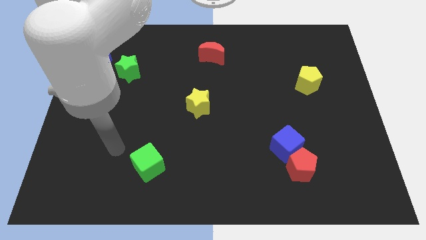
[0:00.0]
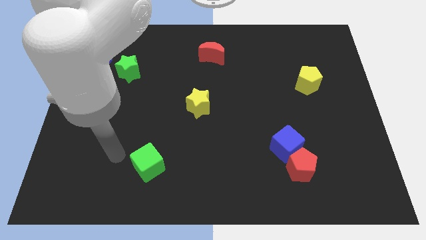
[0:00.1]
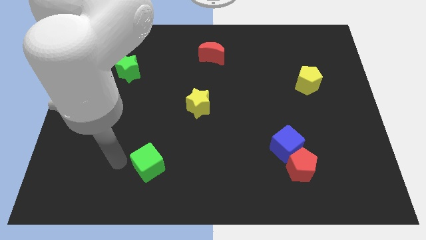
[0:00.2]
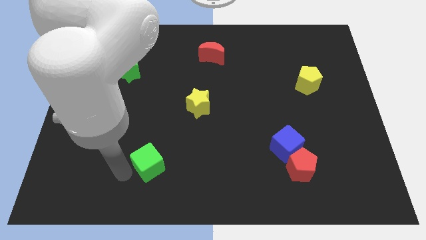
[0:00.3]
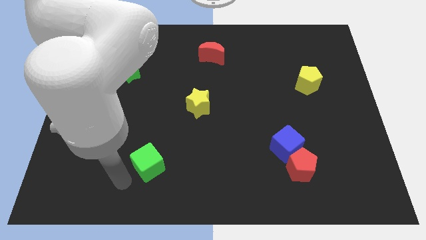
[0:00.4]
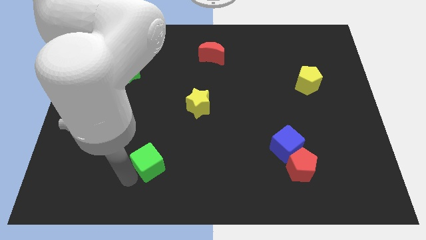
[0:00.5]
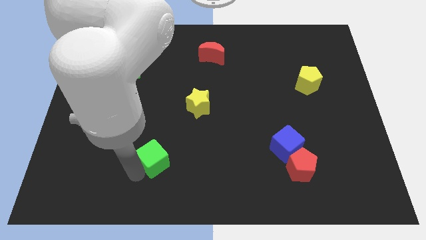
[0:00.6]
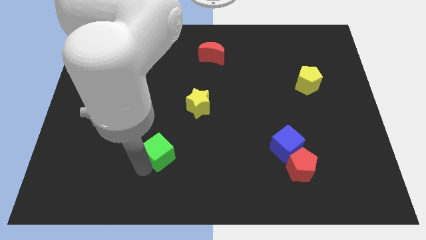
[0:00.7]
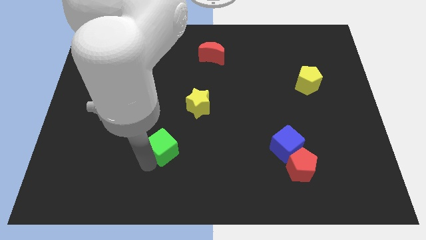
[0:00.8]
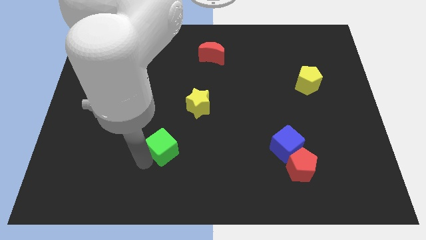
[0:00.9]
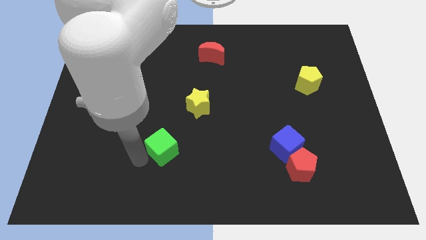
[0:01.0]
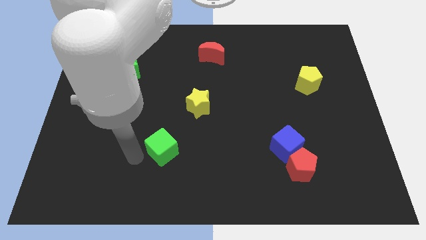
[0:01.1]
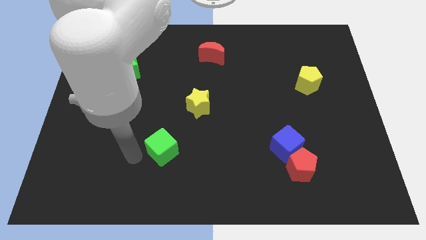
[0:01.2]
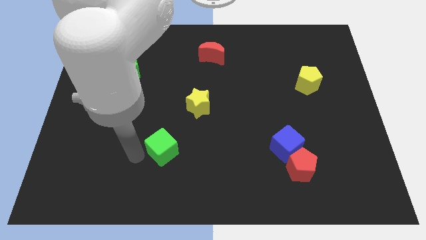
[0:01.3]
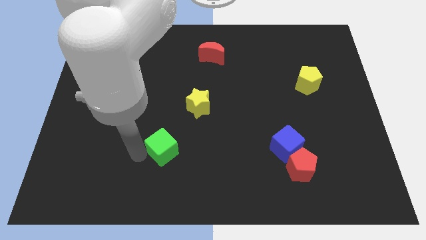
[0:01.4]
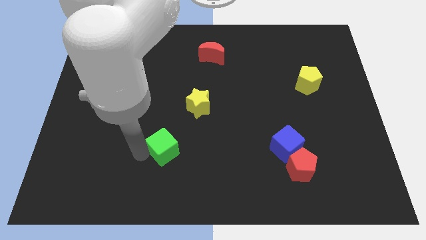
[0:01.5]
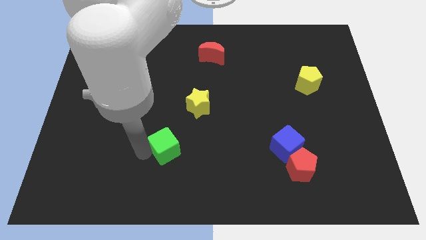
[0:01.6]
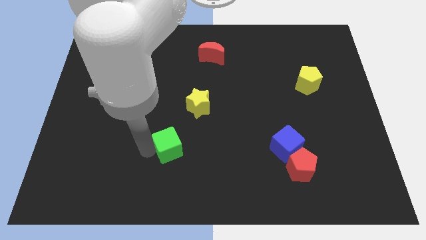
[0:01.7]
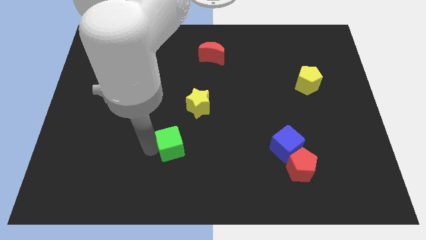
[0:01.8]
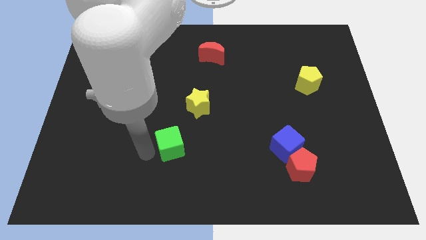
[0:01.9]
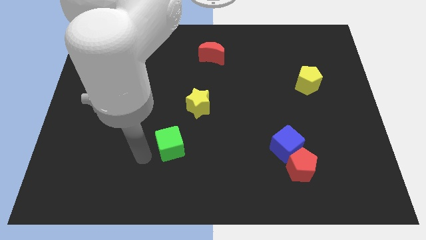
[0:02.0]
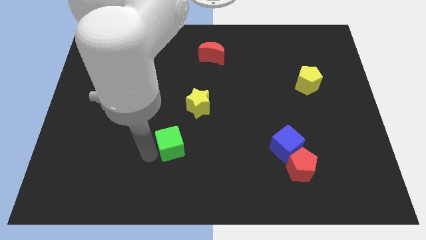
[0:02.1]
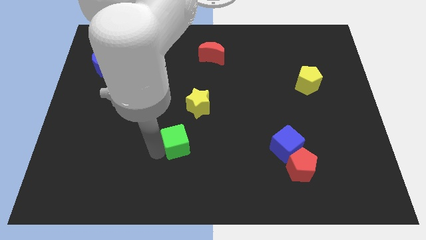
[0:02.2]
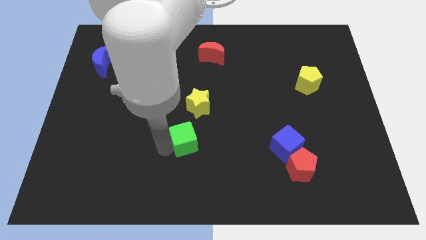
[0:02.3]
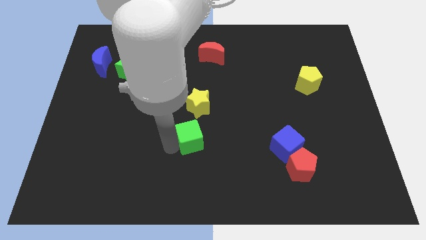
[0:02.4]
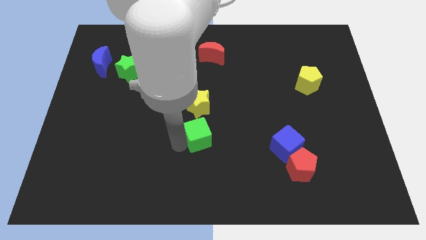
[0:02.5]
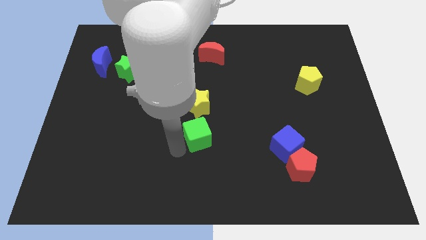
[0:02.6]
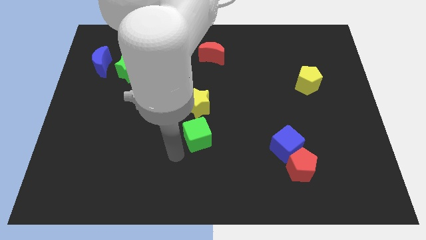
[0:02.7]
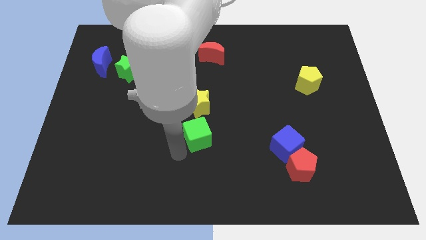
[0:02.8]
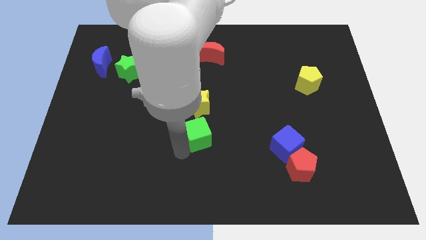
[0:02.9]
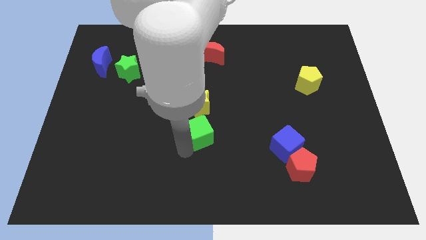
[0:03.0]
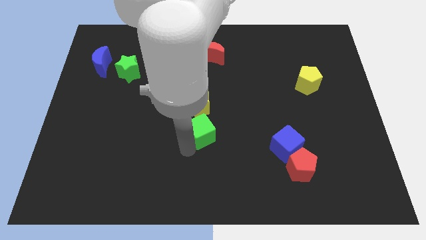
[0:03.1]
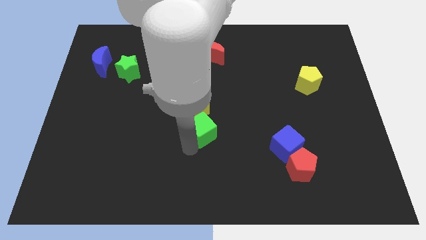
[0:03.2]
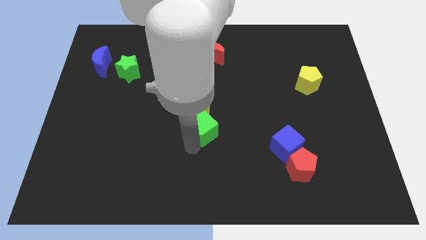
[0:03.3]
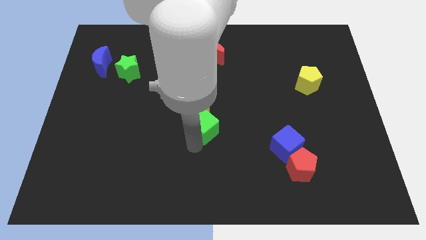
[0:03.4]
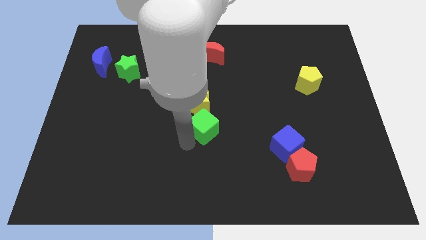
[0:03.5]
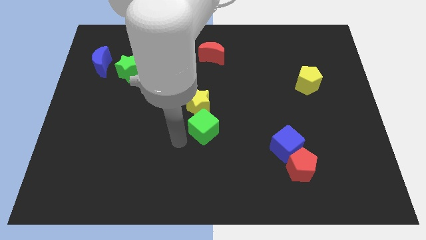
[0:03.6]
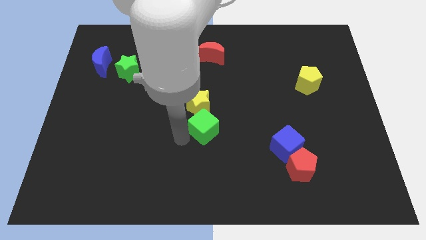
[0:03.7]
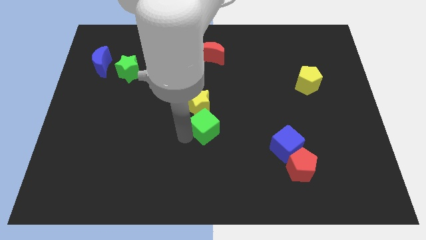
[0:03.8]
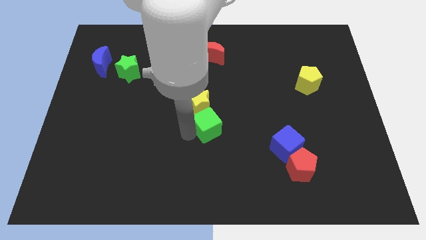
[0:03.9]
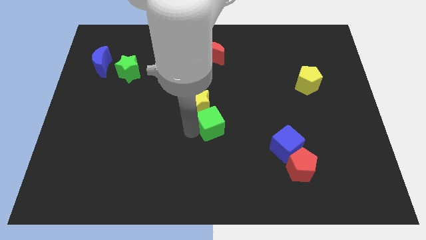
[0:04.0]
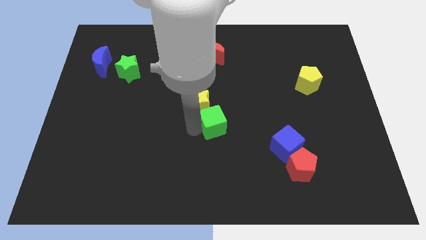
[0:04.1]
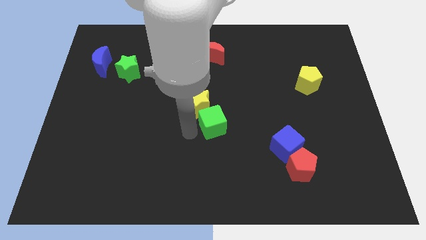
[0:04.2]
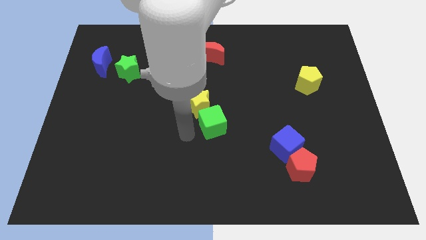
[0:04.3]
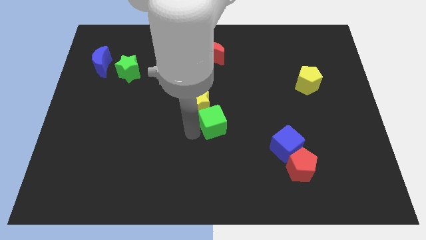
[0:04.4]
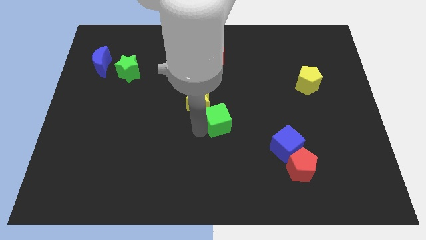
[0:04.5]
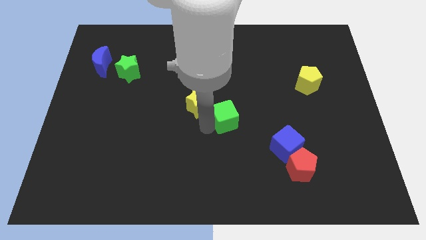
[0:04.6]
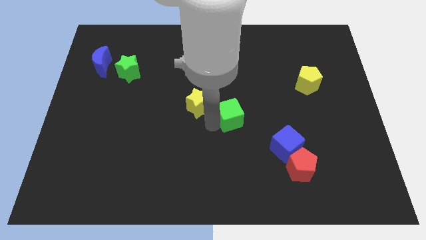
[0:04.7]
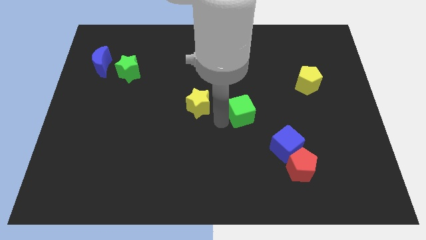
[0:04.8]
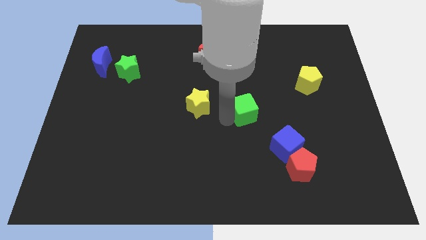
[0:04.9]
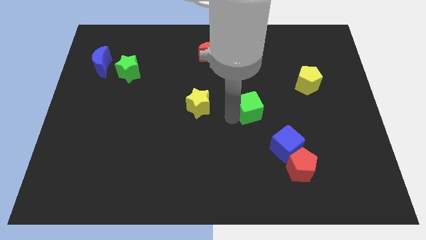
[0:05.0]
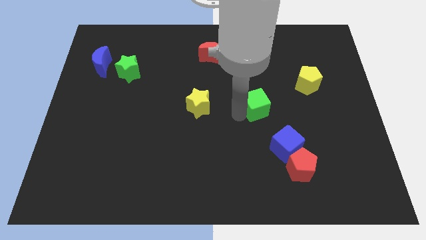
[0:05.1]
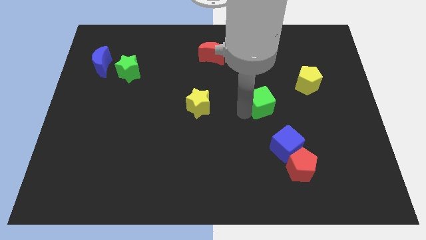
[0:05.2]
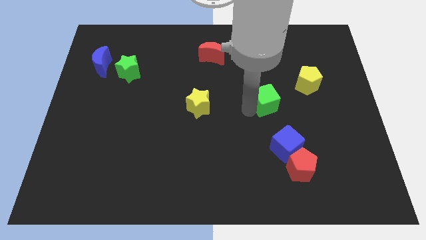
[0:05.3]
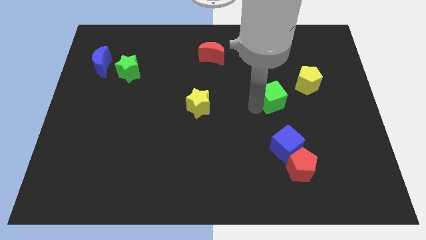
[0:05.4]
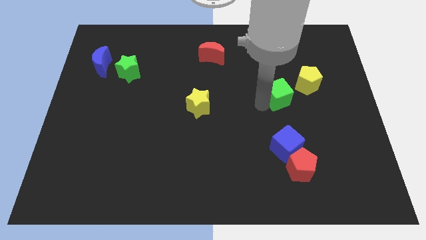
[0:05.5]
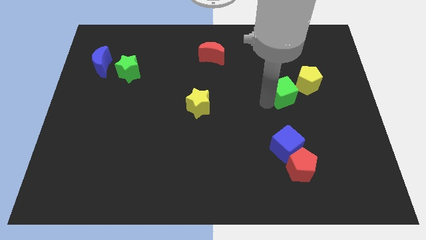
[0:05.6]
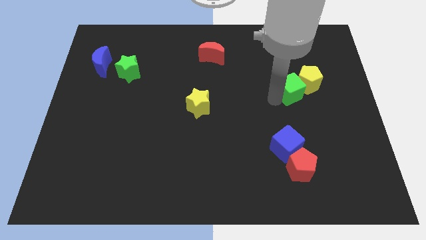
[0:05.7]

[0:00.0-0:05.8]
move the green cube to the yellow pentagon

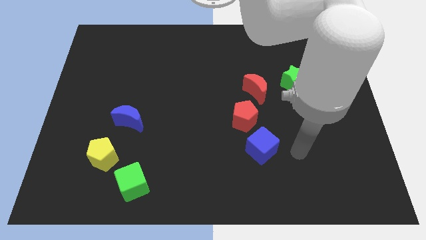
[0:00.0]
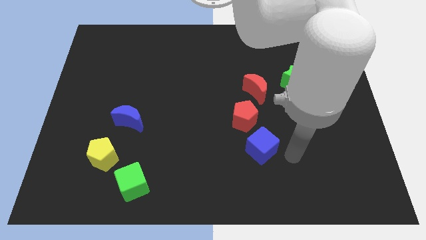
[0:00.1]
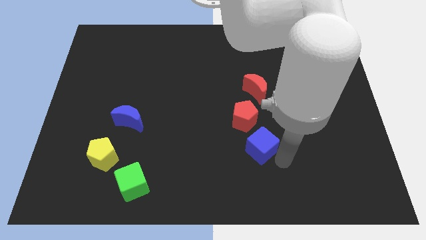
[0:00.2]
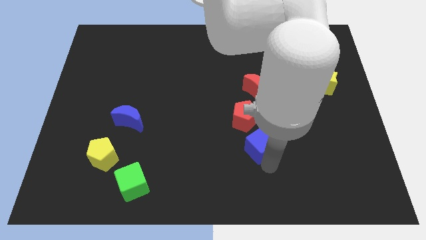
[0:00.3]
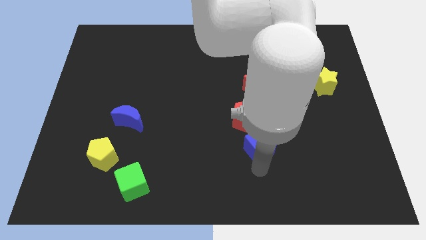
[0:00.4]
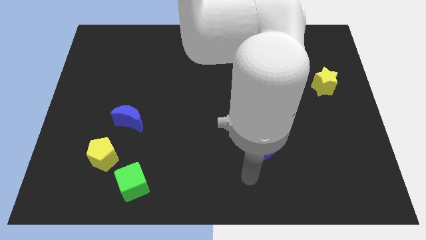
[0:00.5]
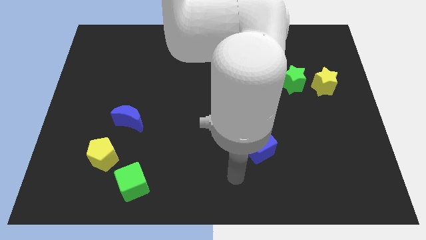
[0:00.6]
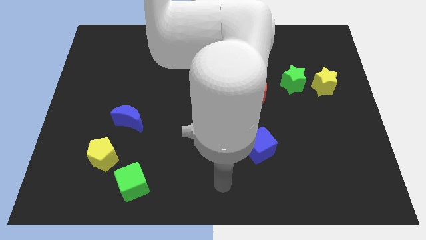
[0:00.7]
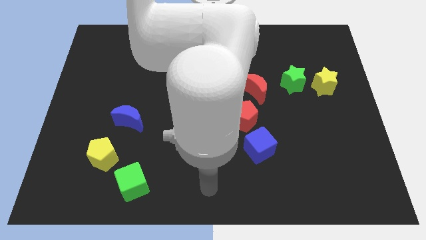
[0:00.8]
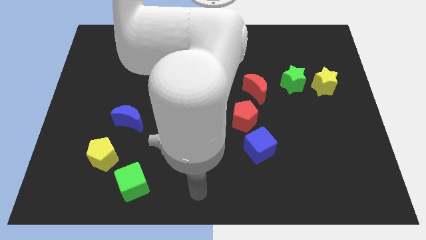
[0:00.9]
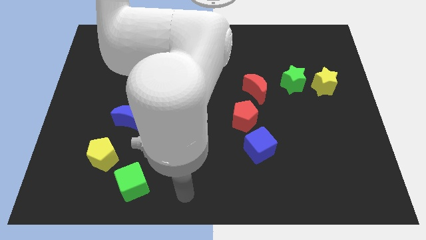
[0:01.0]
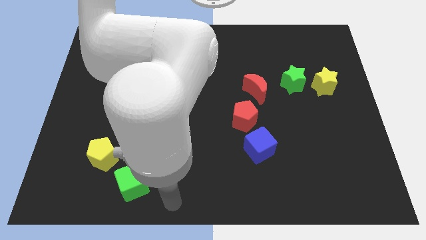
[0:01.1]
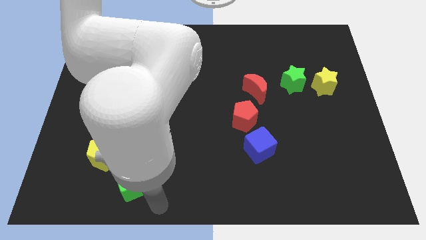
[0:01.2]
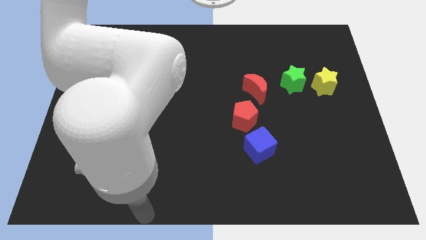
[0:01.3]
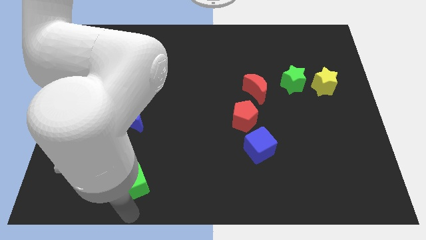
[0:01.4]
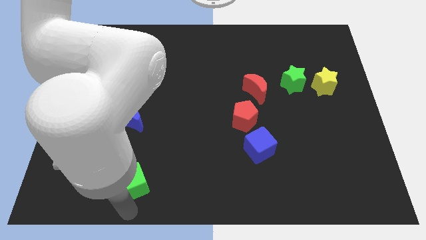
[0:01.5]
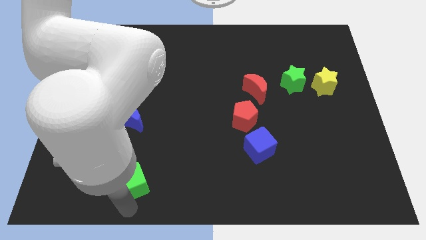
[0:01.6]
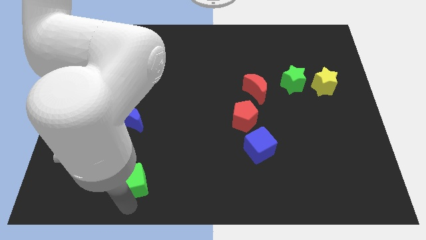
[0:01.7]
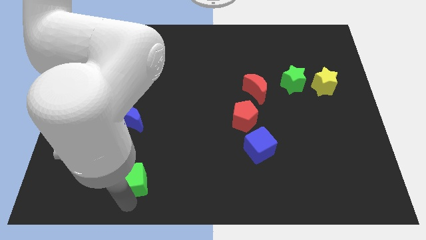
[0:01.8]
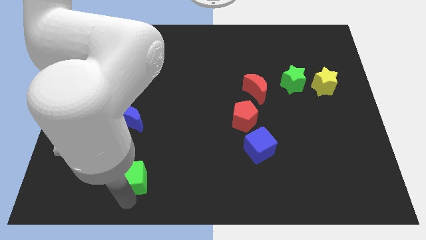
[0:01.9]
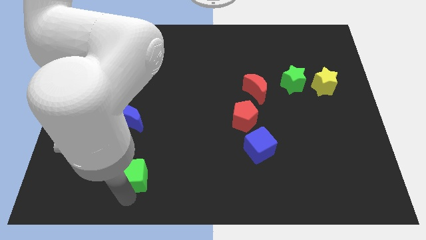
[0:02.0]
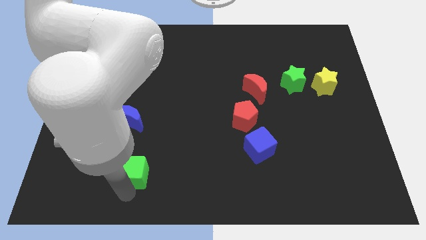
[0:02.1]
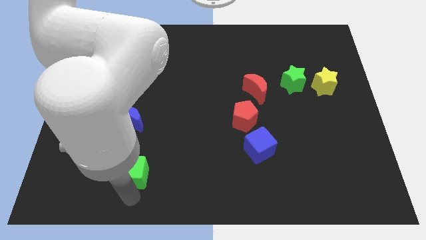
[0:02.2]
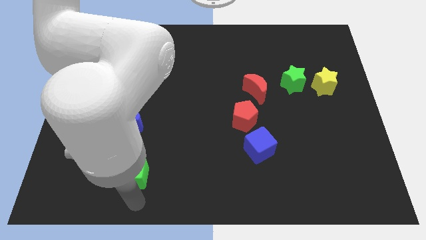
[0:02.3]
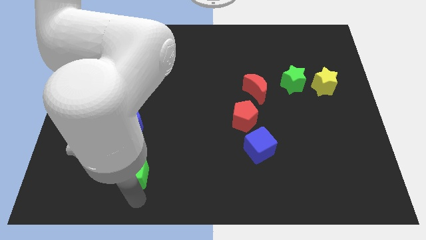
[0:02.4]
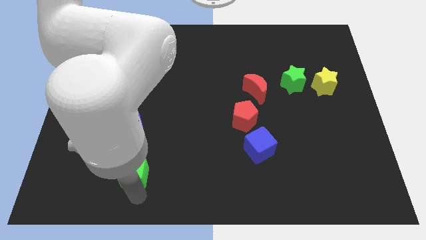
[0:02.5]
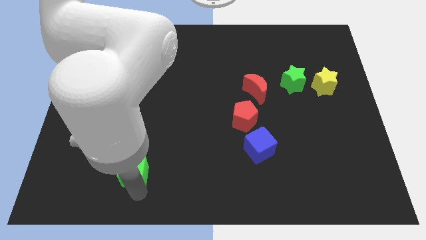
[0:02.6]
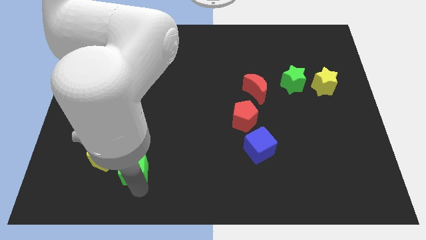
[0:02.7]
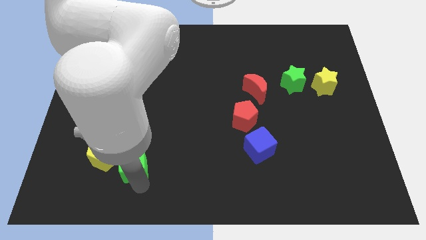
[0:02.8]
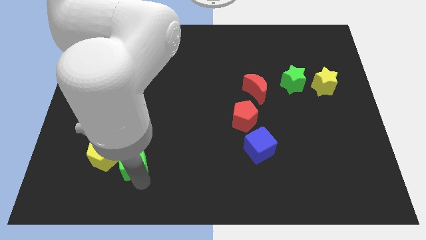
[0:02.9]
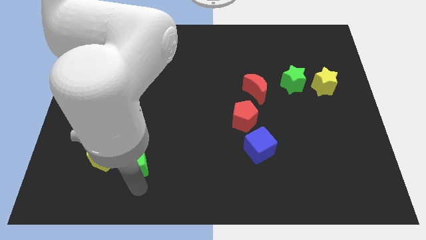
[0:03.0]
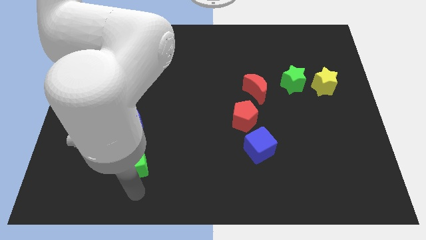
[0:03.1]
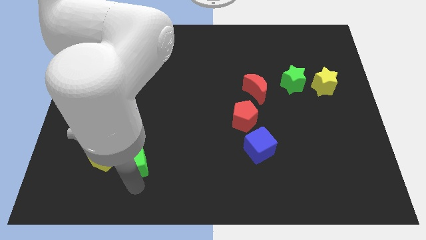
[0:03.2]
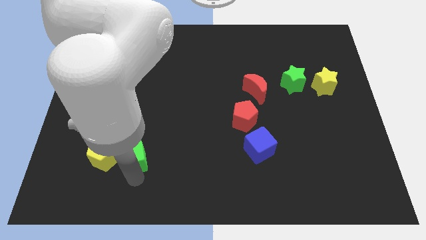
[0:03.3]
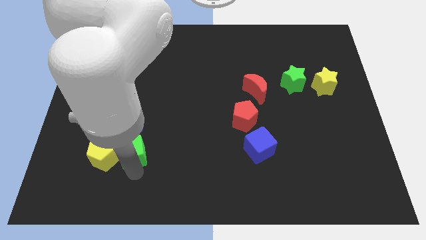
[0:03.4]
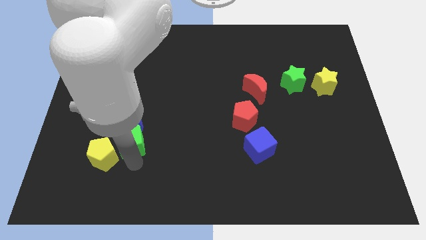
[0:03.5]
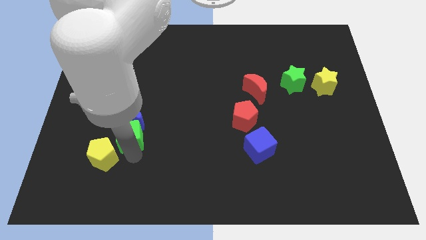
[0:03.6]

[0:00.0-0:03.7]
move the green cube close to the blue moon
